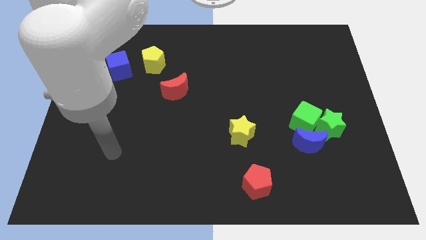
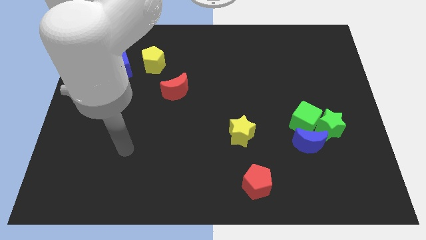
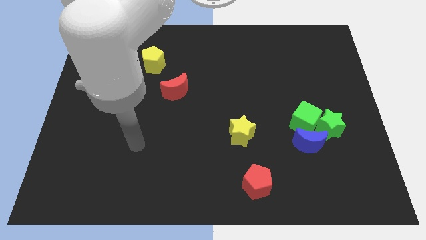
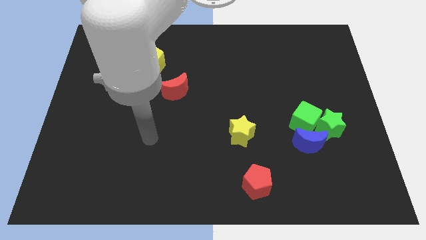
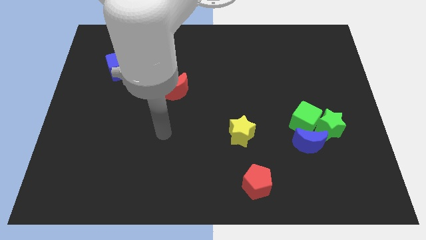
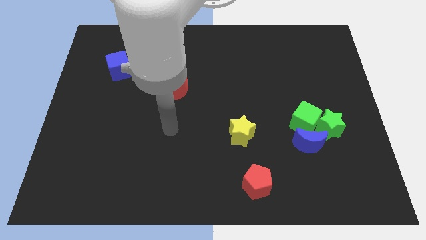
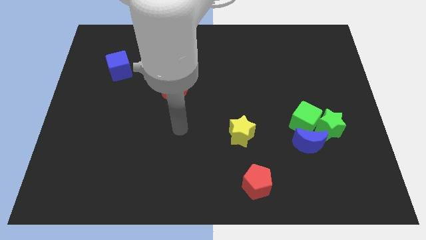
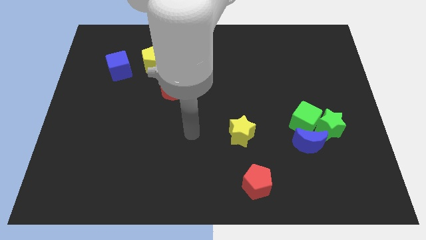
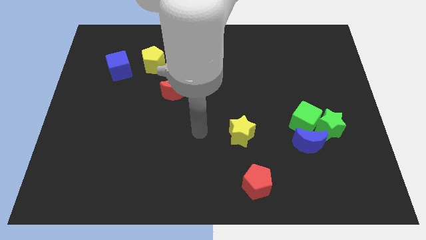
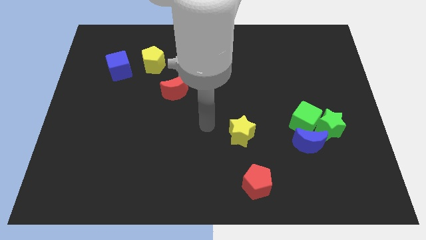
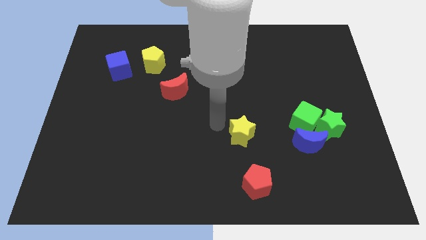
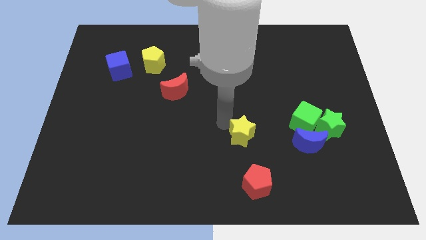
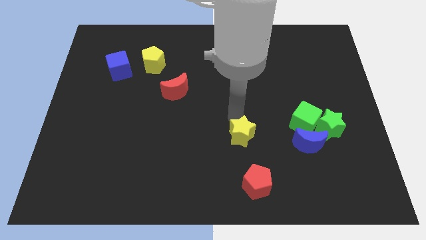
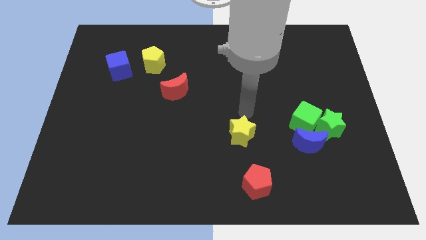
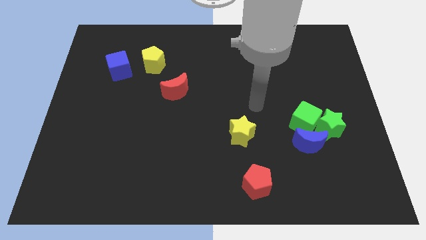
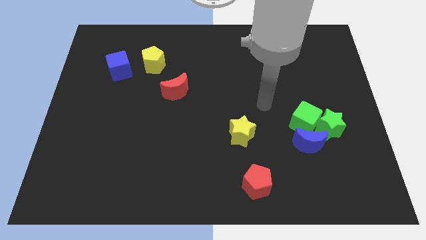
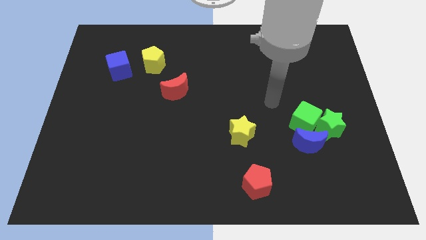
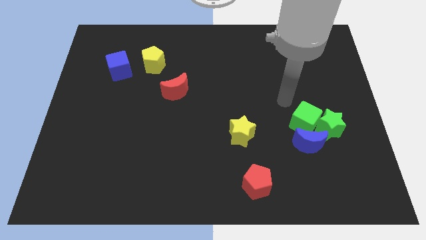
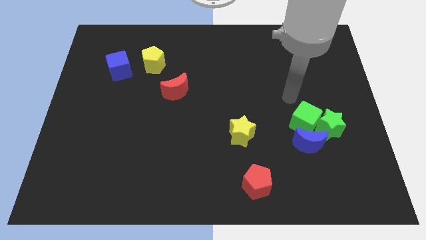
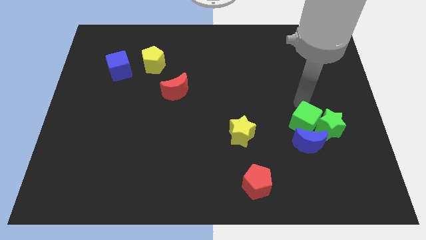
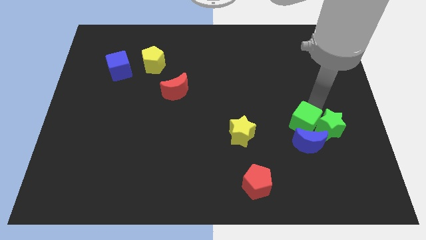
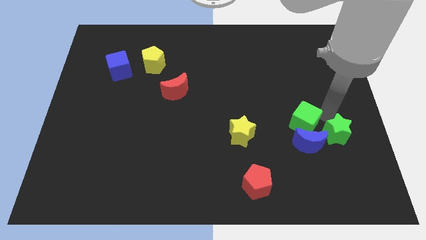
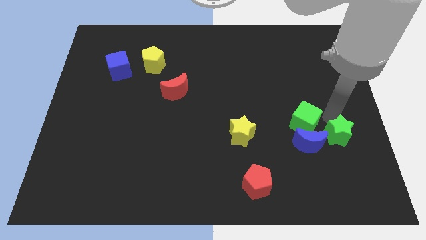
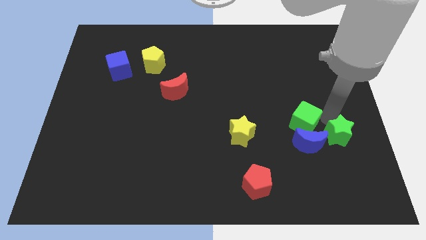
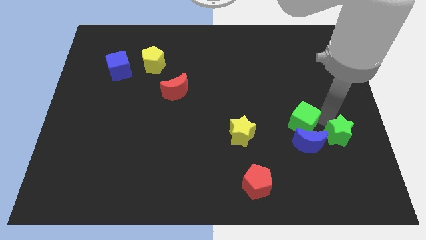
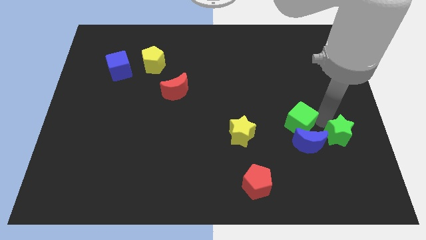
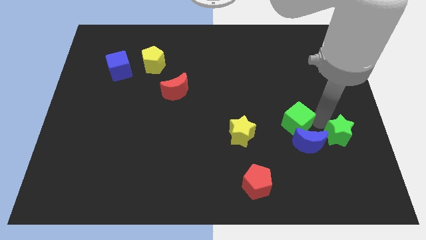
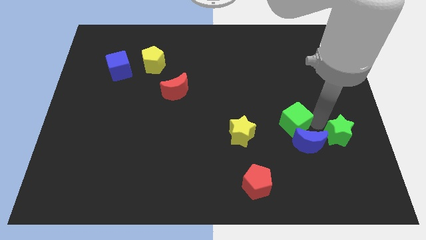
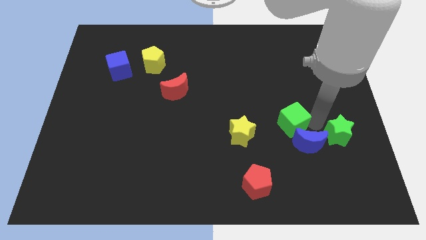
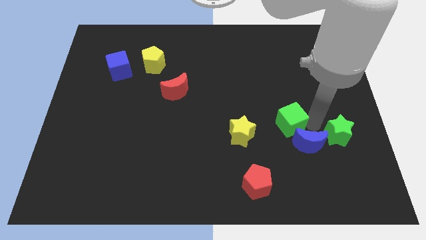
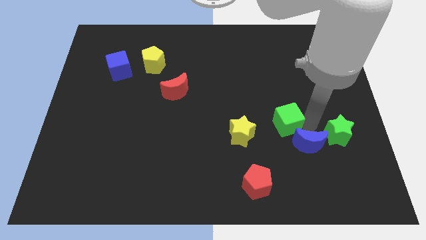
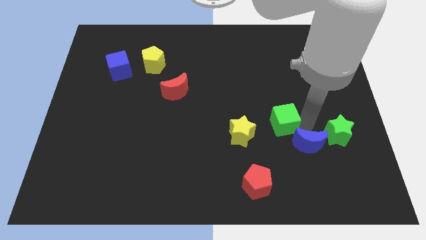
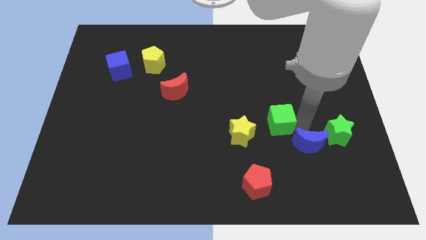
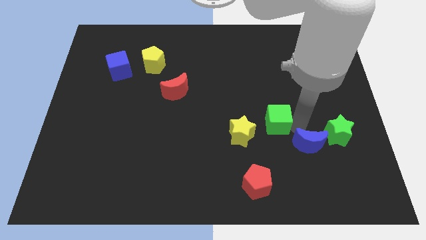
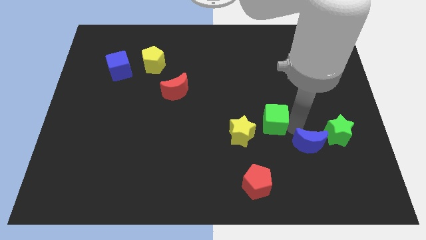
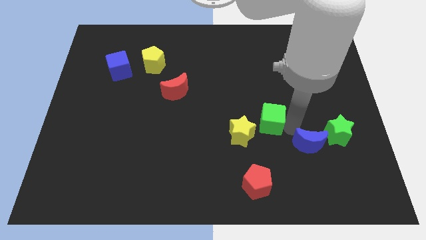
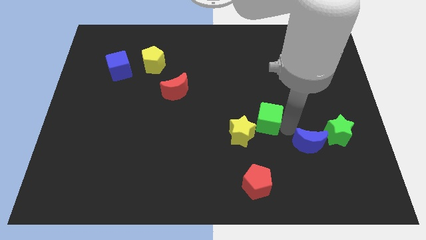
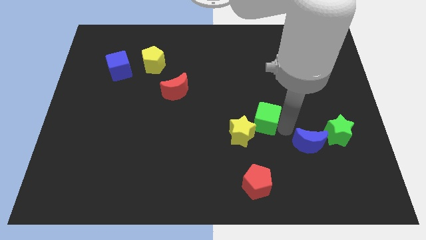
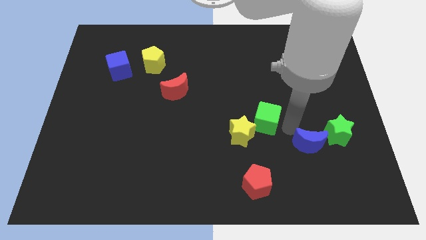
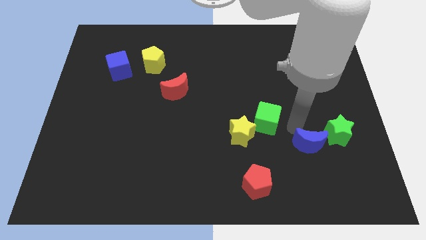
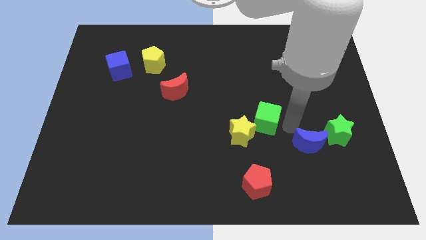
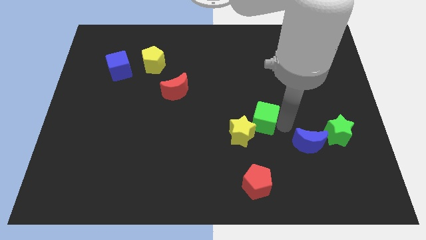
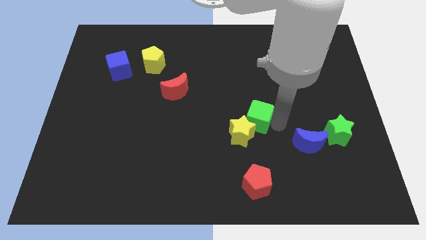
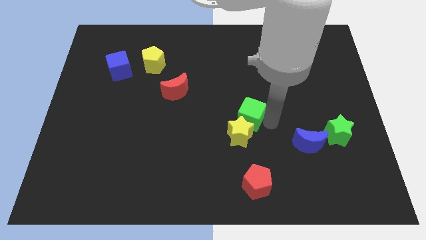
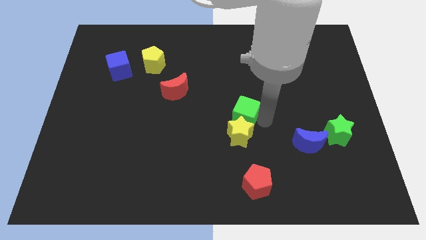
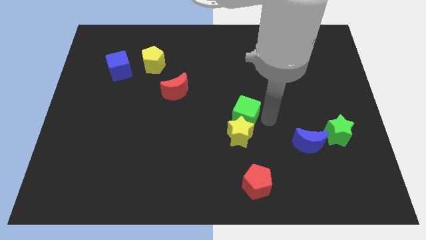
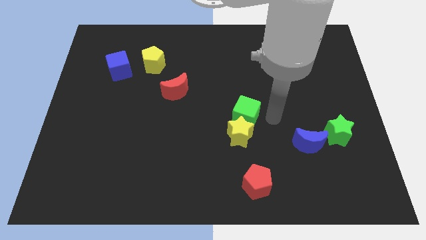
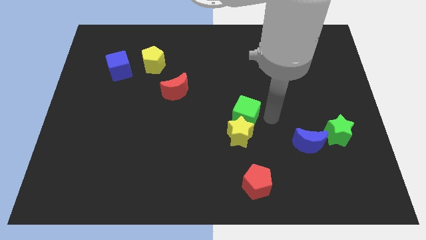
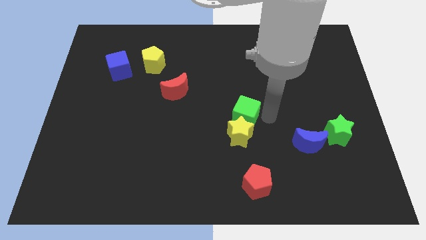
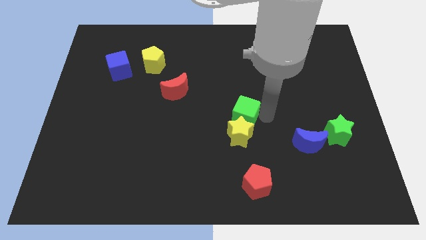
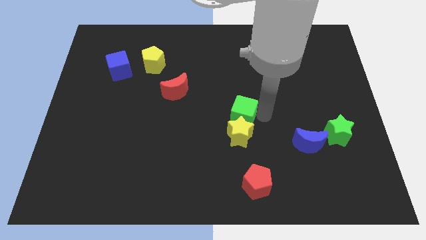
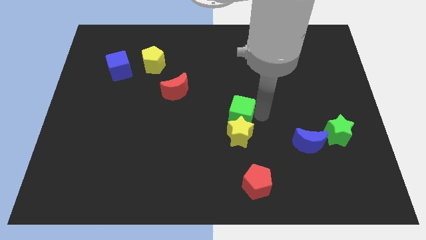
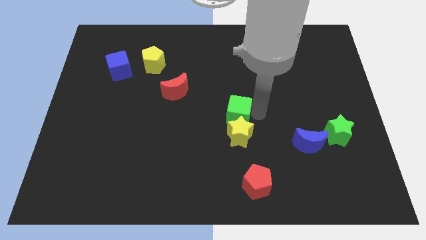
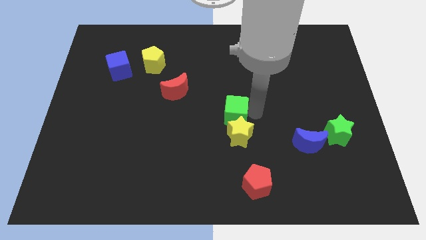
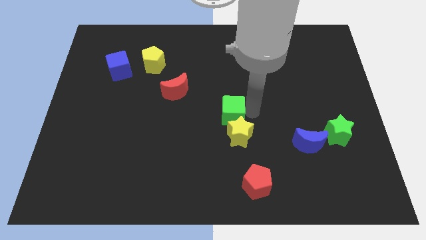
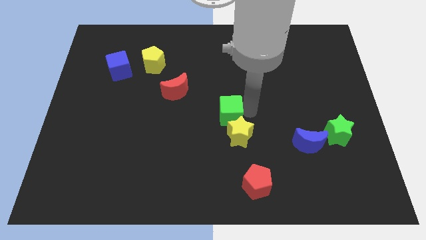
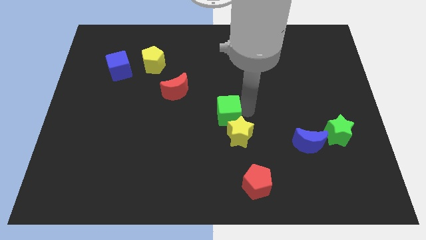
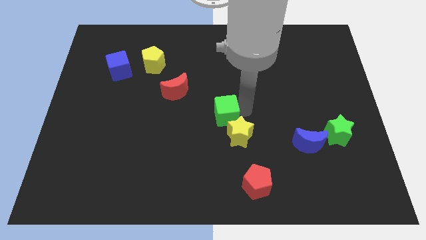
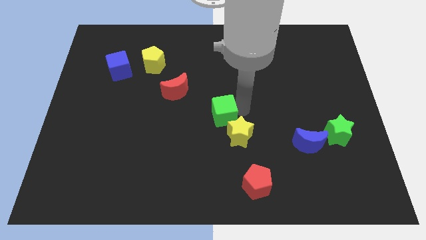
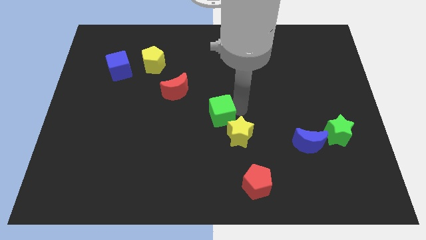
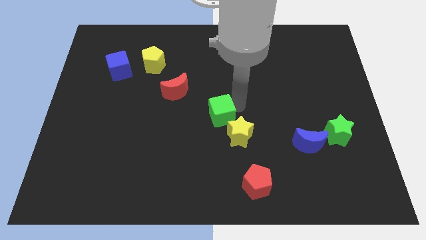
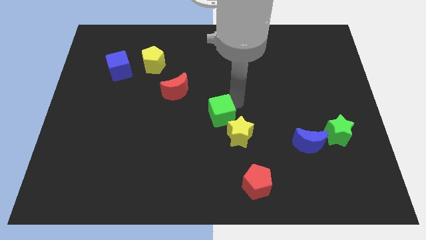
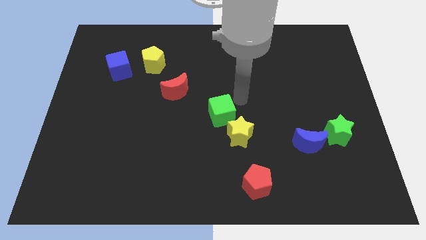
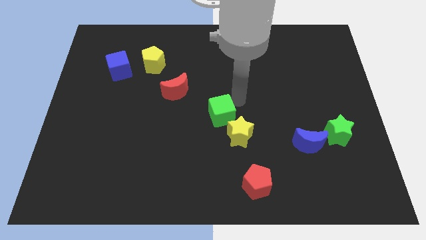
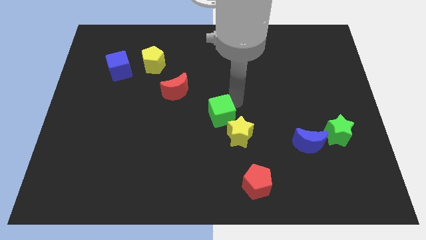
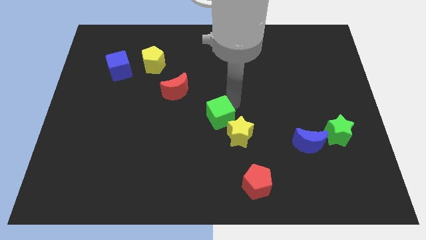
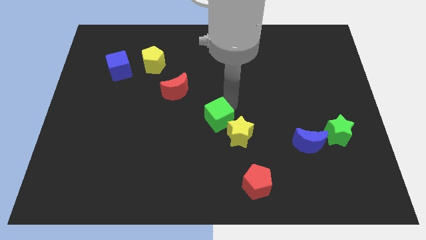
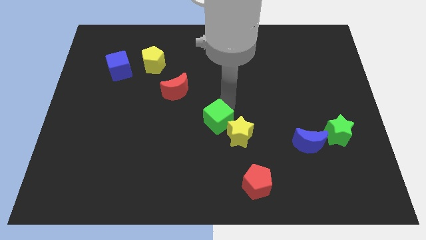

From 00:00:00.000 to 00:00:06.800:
push the green cube left

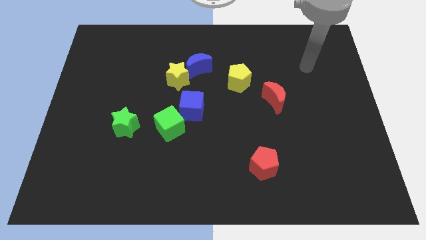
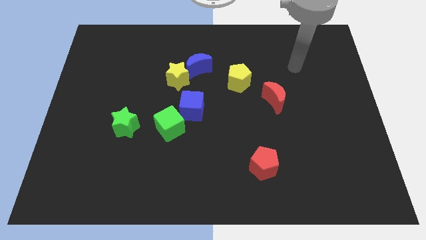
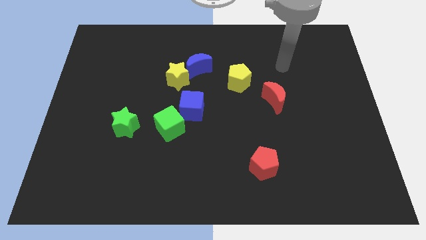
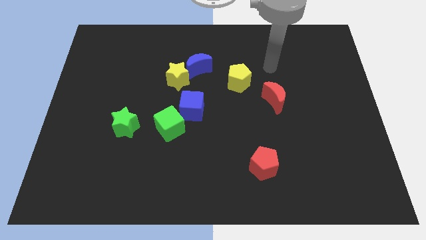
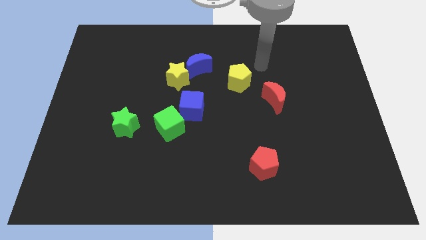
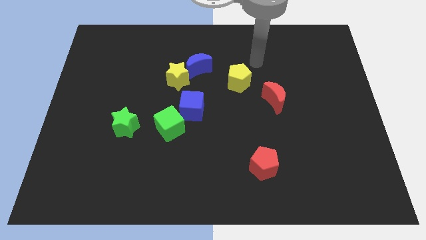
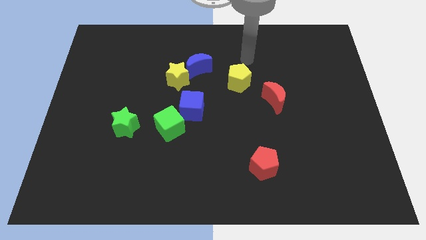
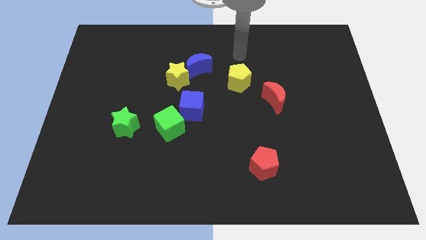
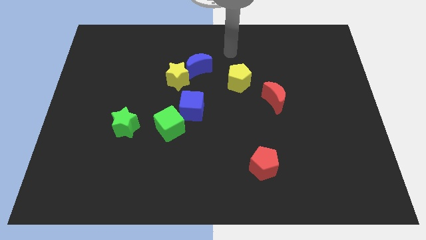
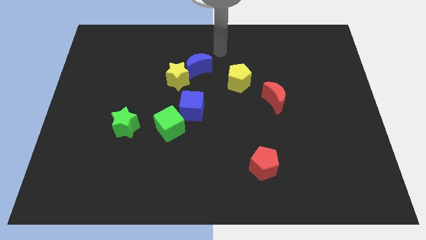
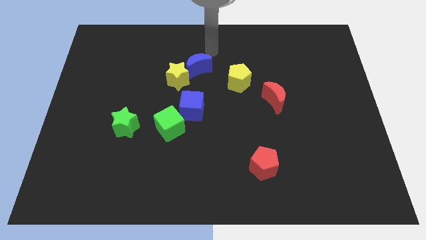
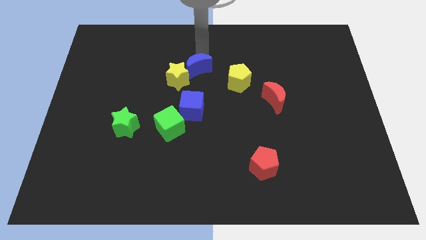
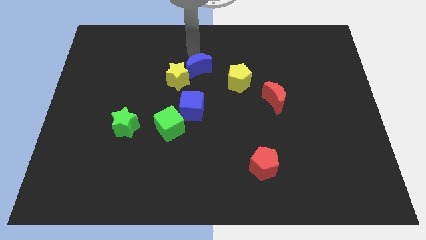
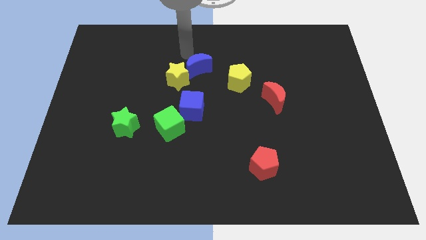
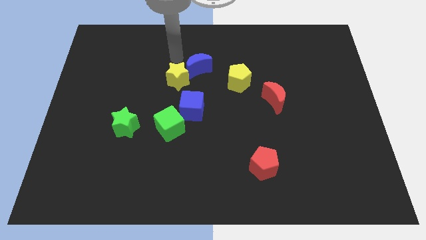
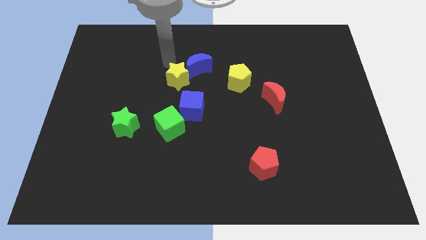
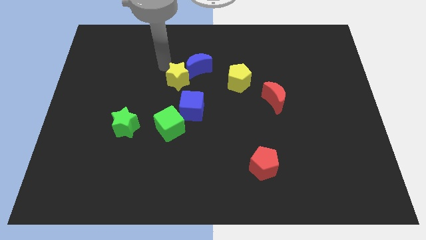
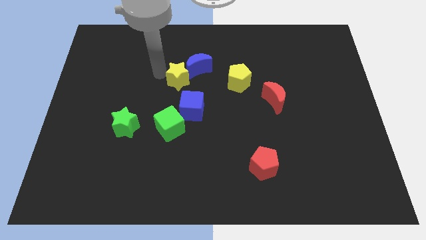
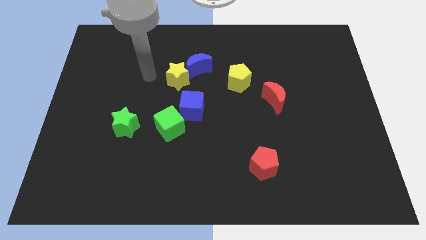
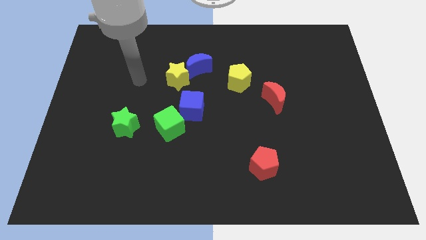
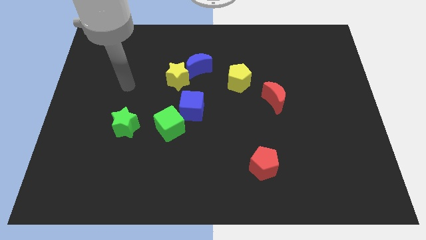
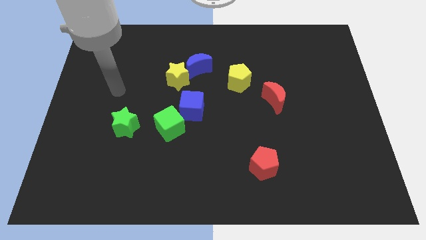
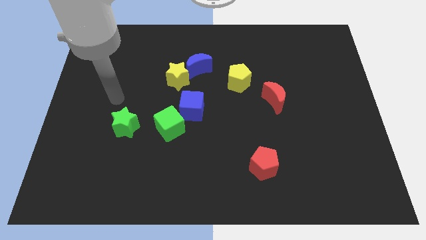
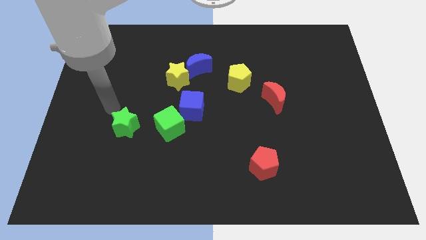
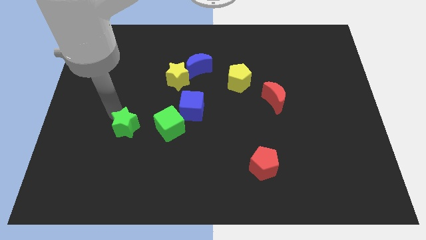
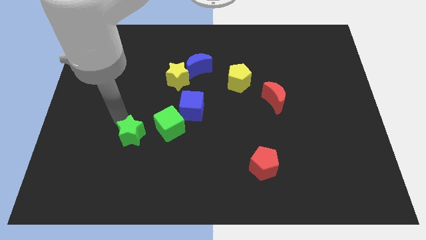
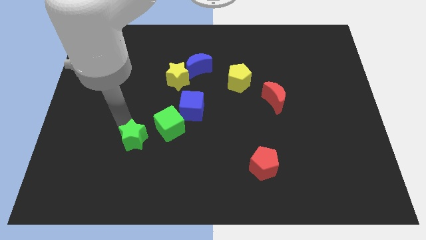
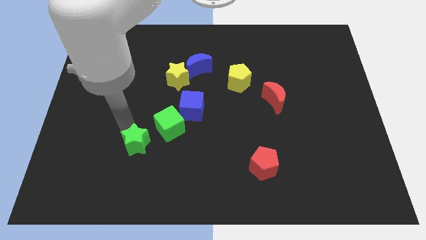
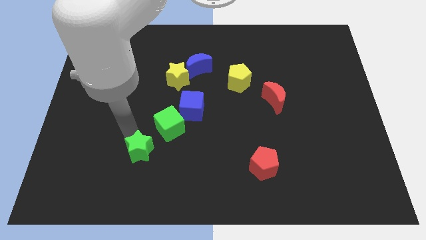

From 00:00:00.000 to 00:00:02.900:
push the green star a little bit down and then to the right
